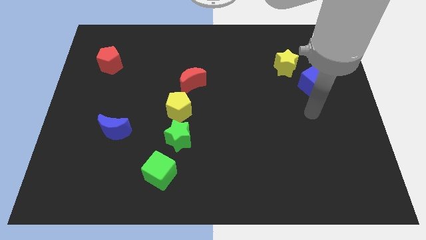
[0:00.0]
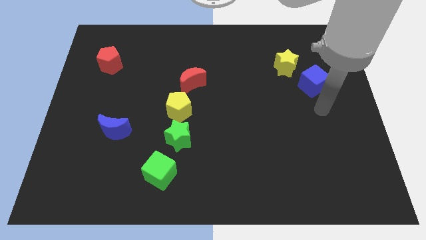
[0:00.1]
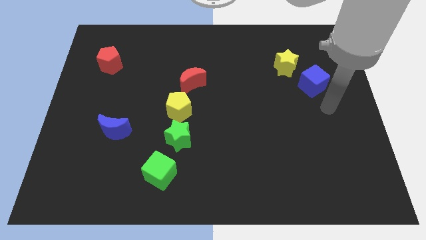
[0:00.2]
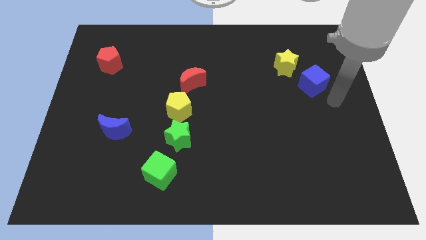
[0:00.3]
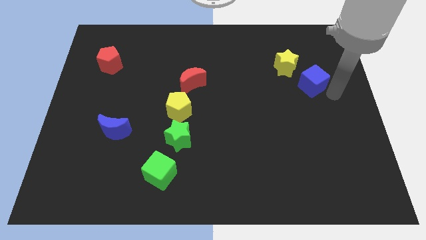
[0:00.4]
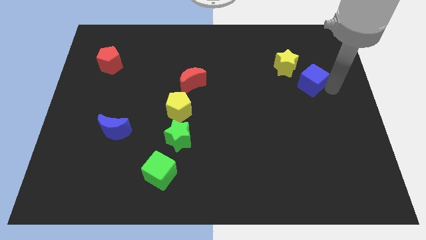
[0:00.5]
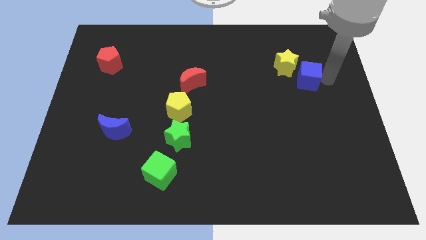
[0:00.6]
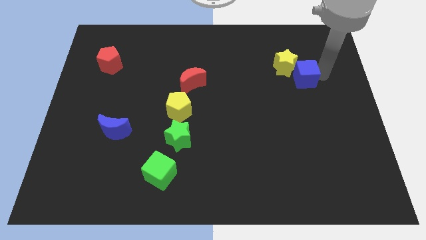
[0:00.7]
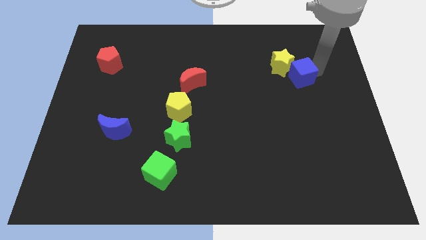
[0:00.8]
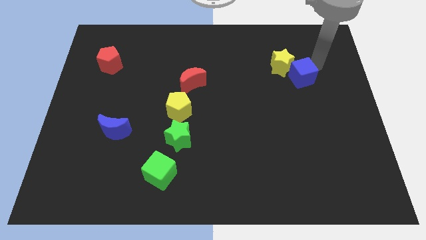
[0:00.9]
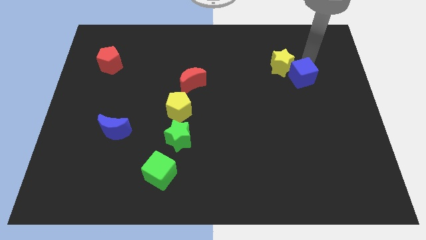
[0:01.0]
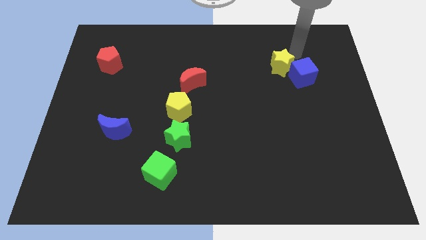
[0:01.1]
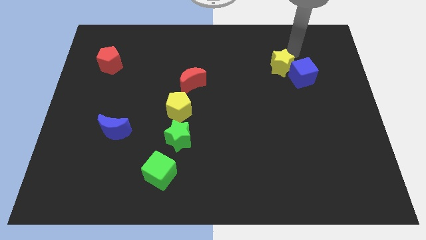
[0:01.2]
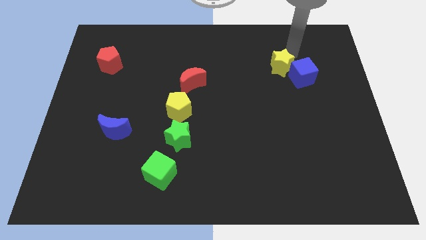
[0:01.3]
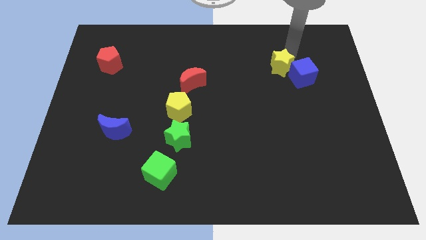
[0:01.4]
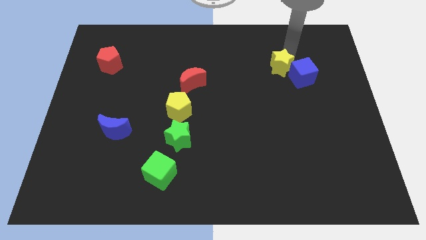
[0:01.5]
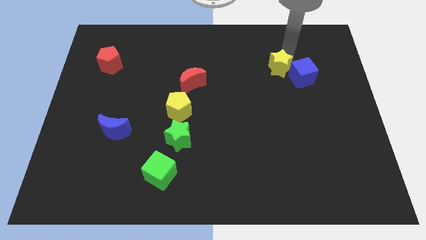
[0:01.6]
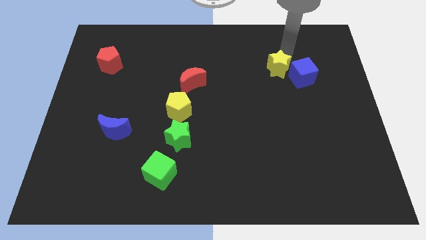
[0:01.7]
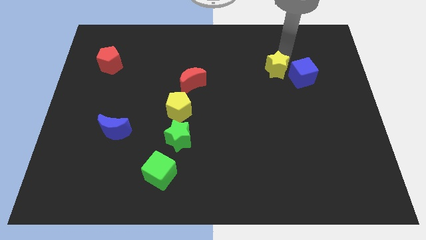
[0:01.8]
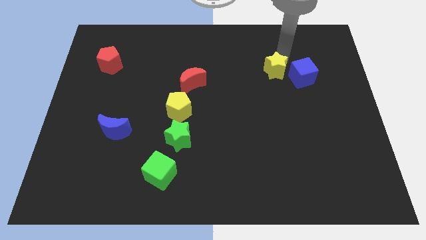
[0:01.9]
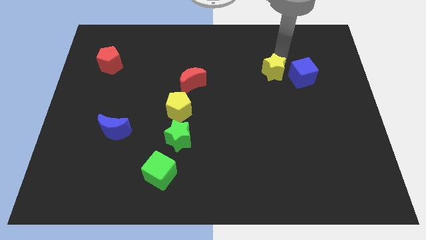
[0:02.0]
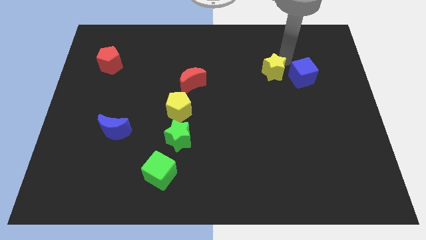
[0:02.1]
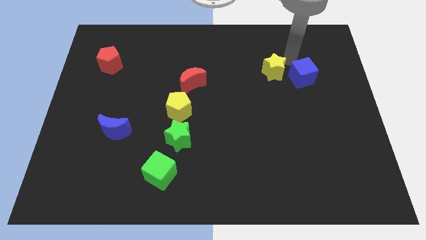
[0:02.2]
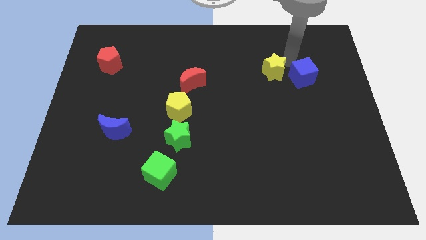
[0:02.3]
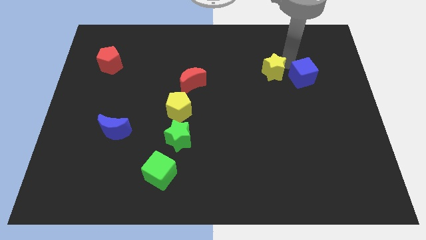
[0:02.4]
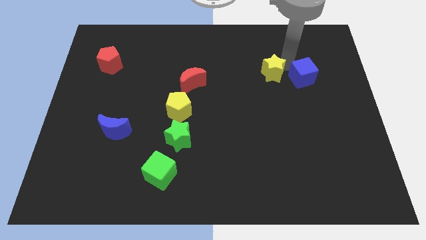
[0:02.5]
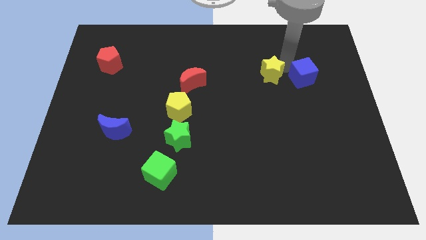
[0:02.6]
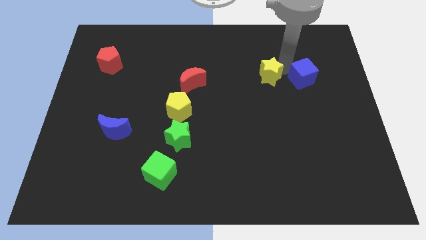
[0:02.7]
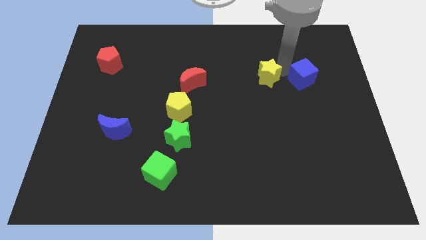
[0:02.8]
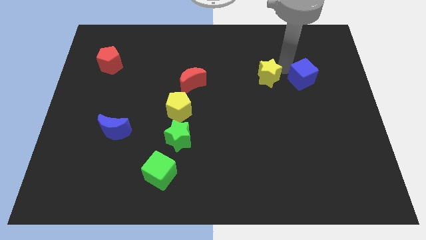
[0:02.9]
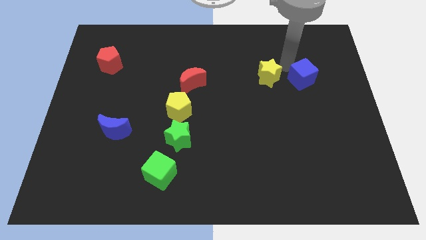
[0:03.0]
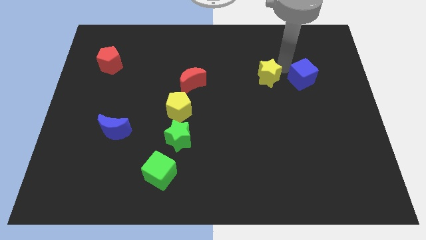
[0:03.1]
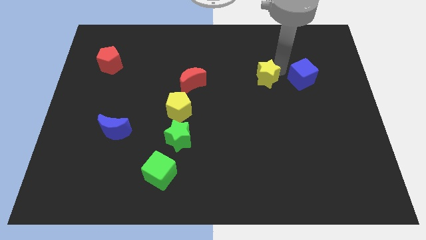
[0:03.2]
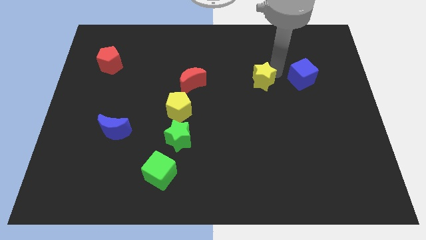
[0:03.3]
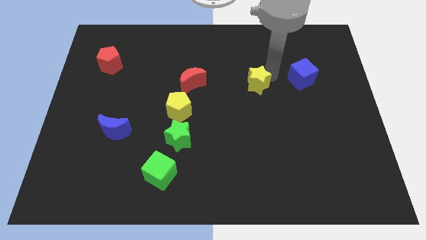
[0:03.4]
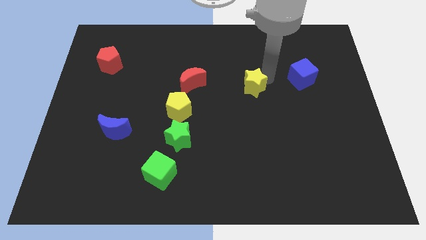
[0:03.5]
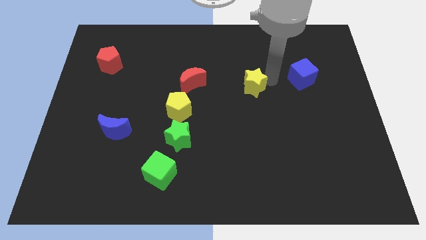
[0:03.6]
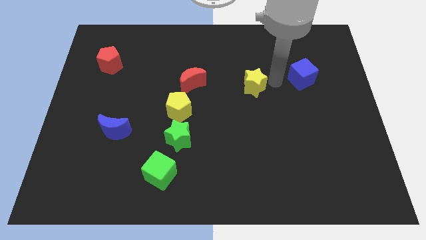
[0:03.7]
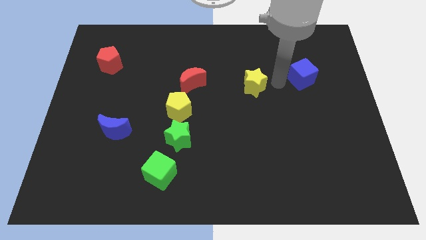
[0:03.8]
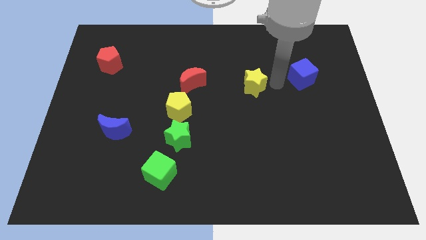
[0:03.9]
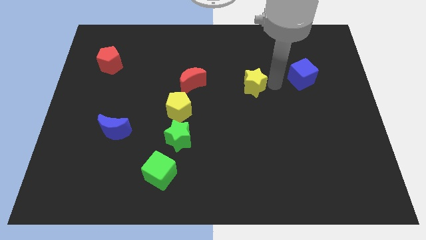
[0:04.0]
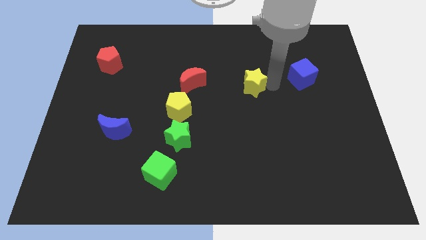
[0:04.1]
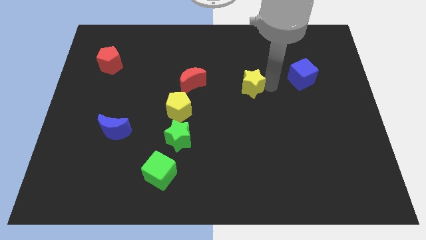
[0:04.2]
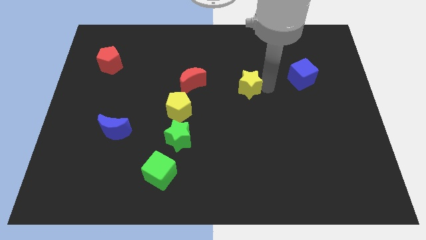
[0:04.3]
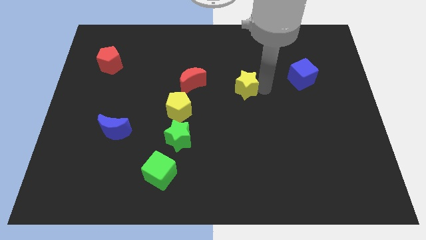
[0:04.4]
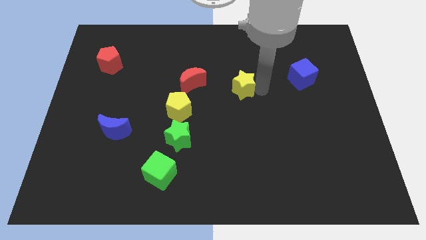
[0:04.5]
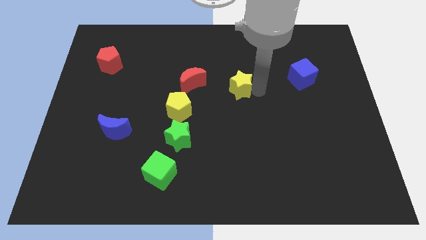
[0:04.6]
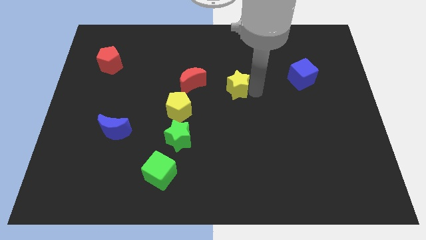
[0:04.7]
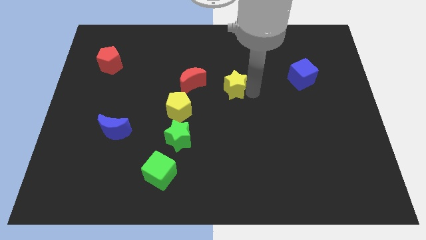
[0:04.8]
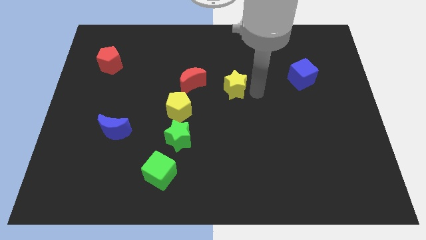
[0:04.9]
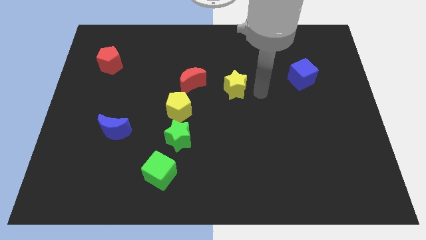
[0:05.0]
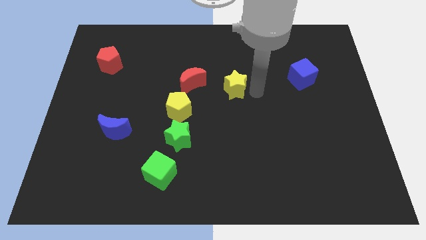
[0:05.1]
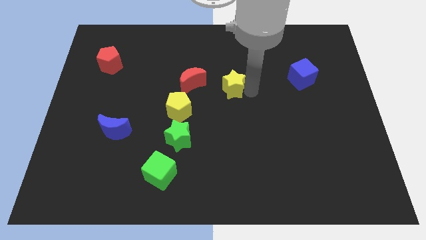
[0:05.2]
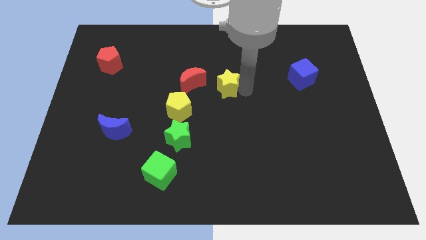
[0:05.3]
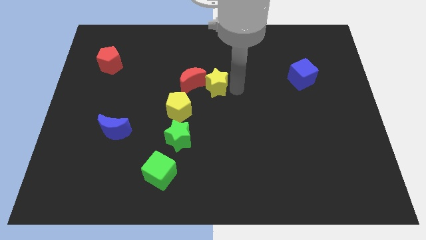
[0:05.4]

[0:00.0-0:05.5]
push the yellow star next to the red moon

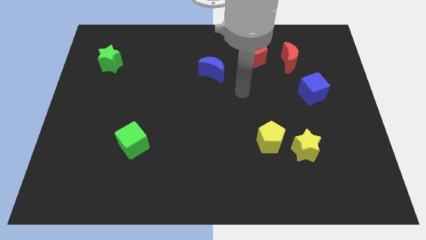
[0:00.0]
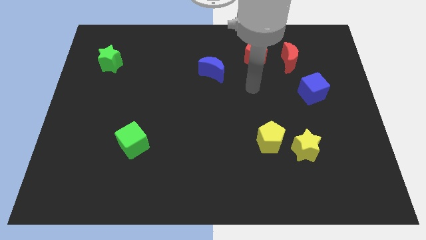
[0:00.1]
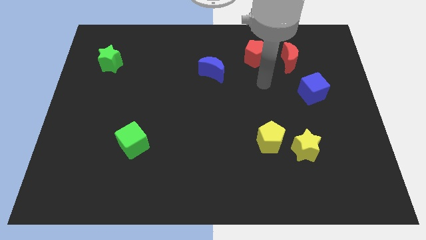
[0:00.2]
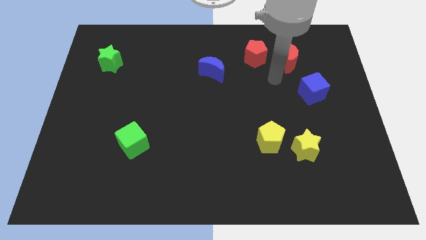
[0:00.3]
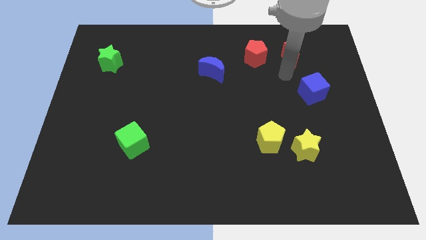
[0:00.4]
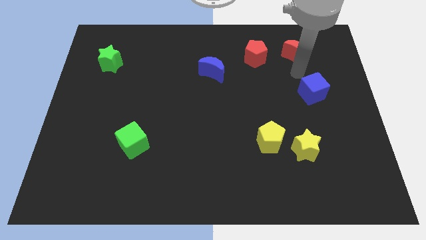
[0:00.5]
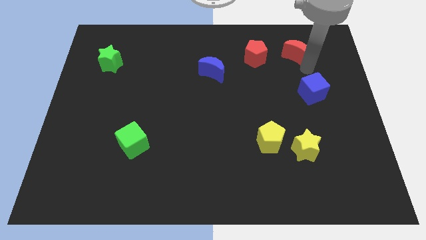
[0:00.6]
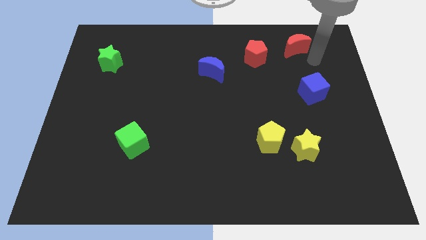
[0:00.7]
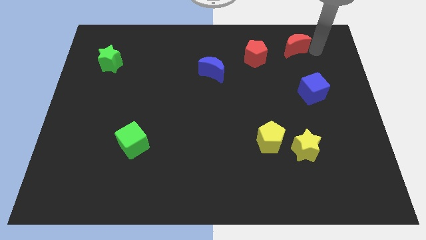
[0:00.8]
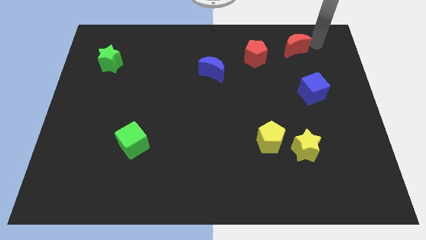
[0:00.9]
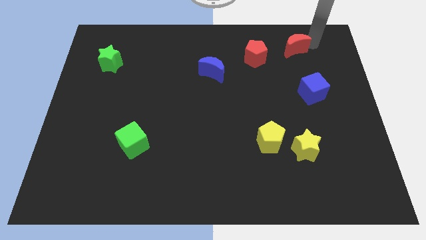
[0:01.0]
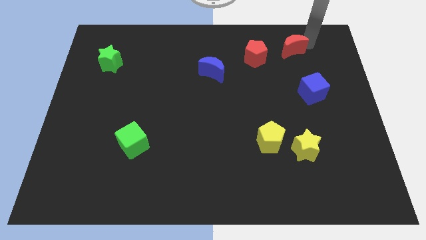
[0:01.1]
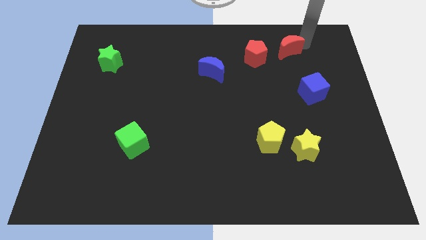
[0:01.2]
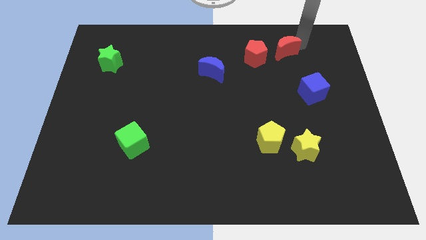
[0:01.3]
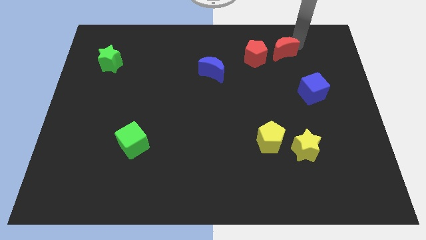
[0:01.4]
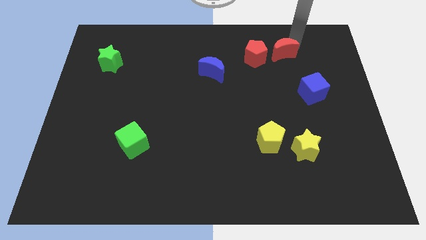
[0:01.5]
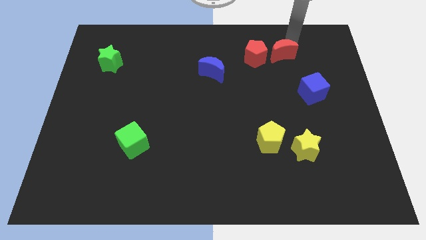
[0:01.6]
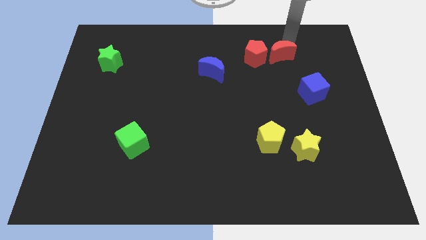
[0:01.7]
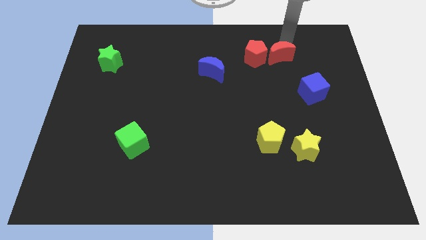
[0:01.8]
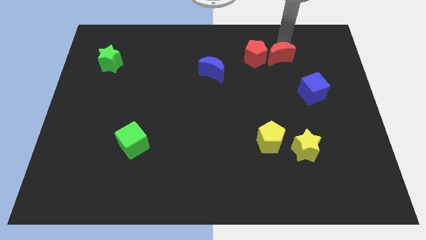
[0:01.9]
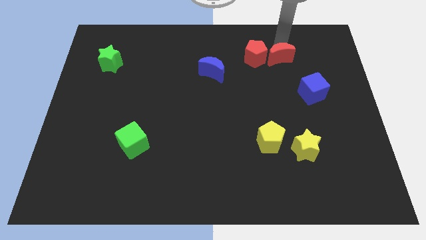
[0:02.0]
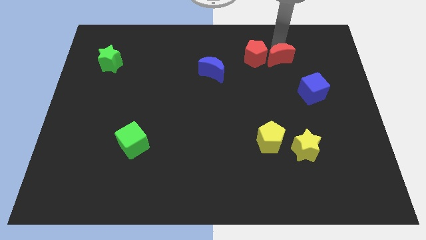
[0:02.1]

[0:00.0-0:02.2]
slide the red moon towards the red pentagon
